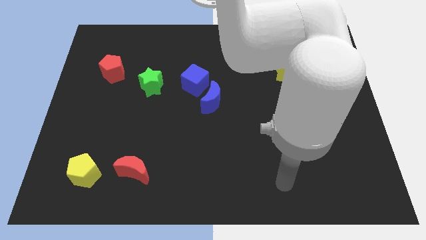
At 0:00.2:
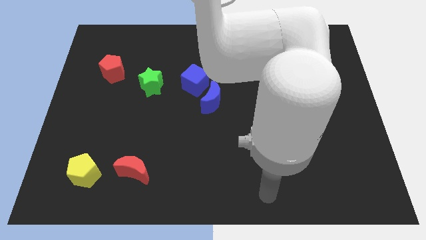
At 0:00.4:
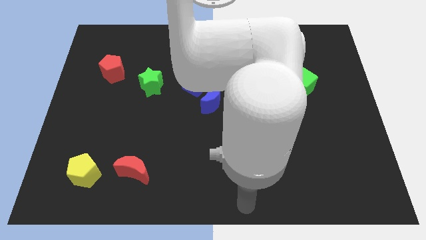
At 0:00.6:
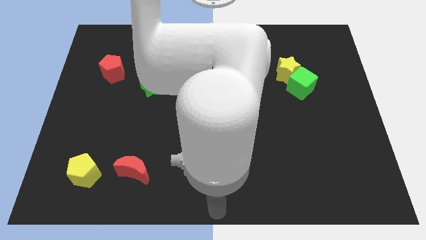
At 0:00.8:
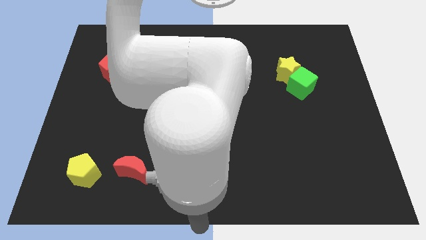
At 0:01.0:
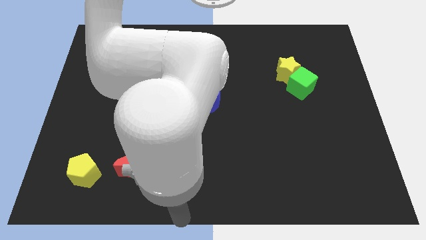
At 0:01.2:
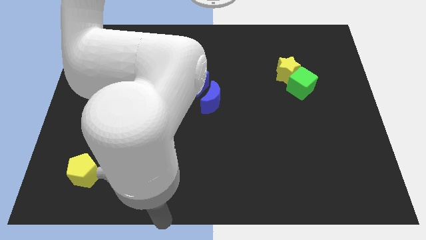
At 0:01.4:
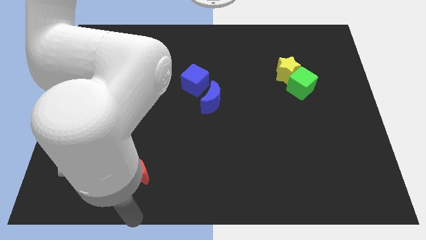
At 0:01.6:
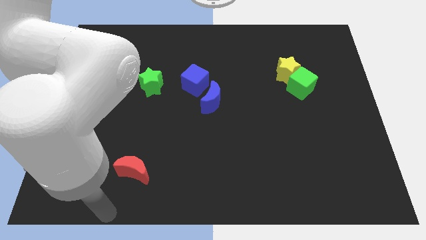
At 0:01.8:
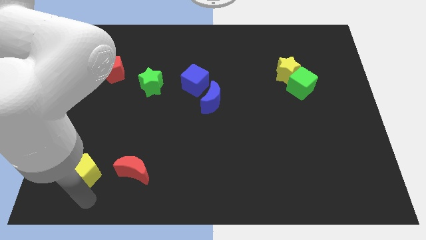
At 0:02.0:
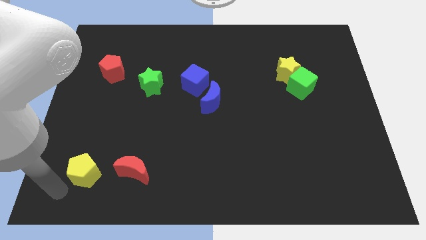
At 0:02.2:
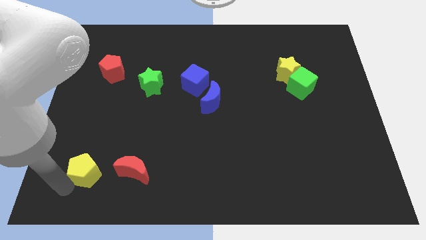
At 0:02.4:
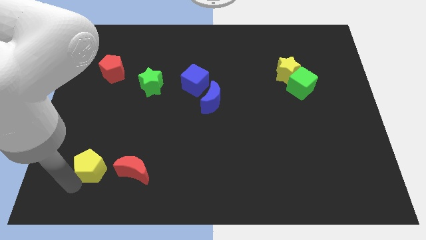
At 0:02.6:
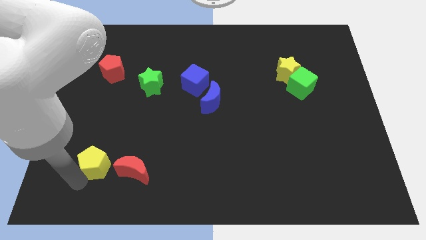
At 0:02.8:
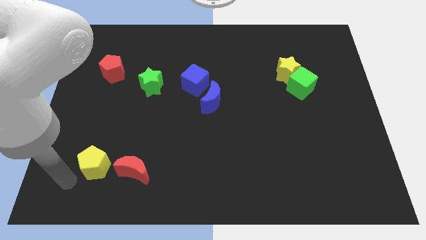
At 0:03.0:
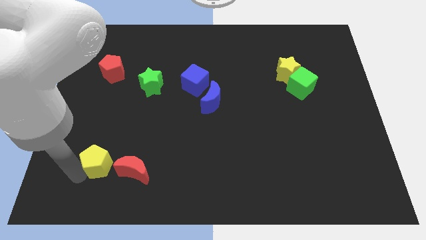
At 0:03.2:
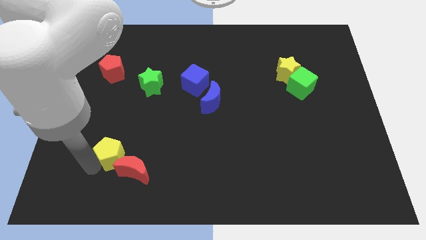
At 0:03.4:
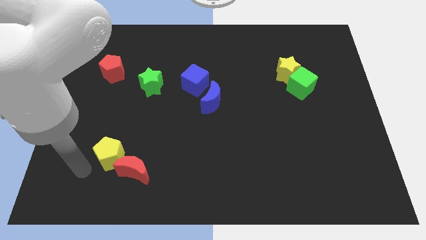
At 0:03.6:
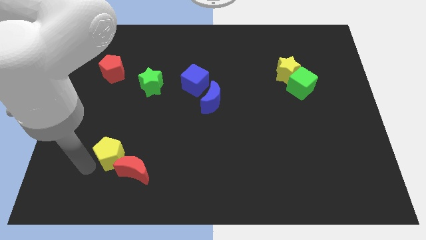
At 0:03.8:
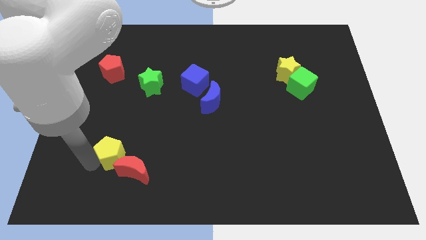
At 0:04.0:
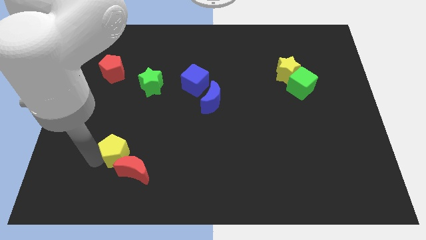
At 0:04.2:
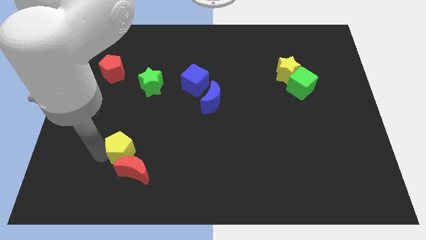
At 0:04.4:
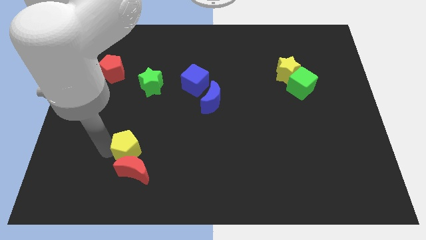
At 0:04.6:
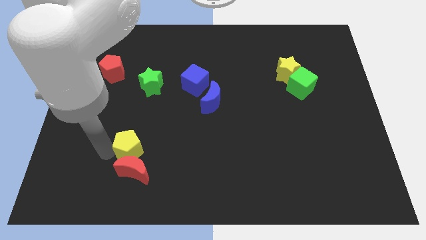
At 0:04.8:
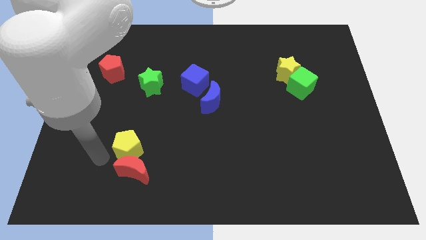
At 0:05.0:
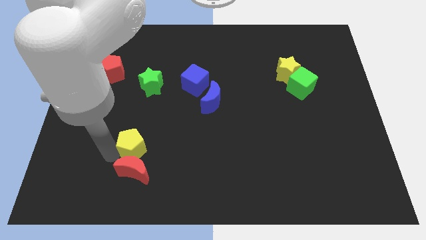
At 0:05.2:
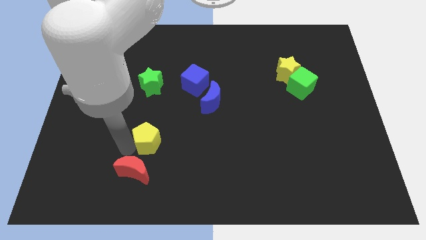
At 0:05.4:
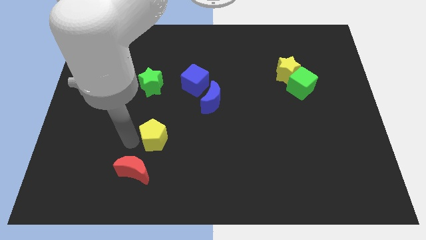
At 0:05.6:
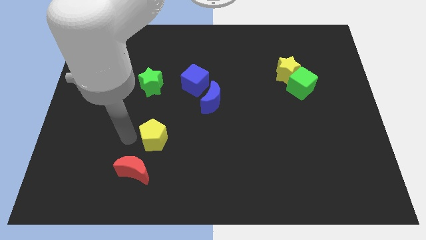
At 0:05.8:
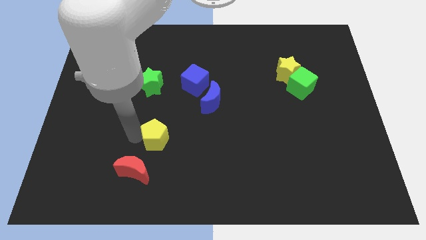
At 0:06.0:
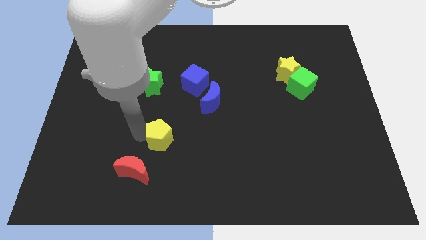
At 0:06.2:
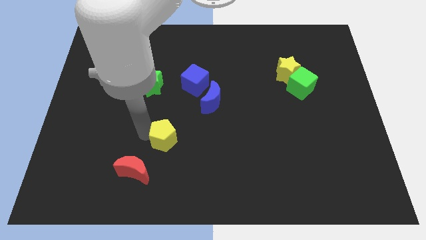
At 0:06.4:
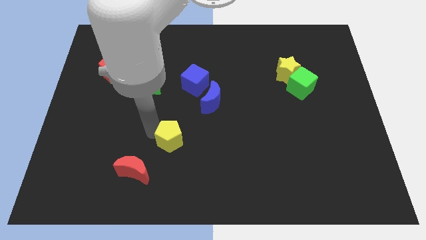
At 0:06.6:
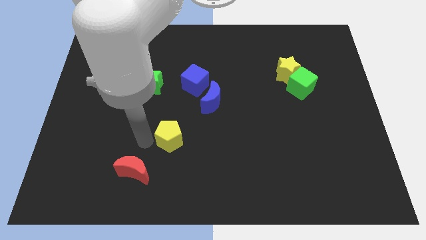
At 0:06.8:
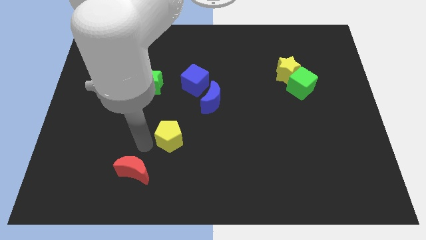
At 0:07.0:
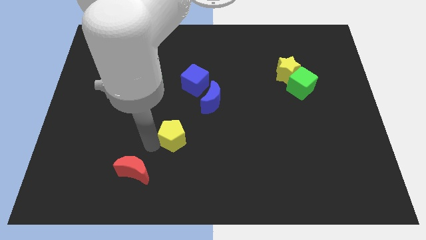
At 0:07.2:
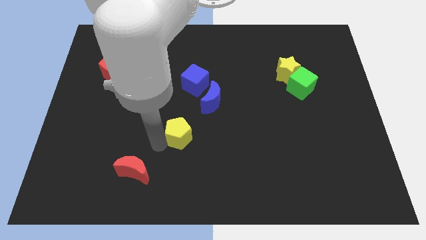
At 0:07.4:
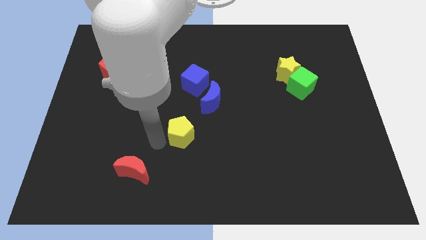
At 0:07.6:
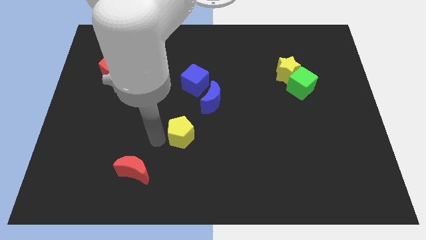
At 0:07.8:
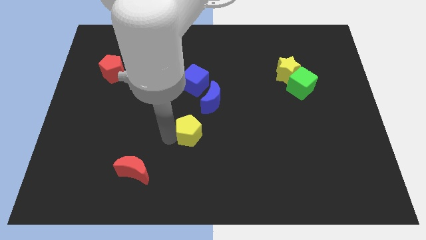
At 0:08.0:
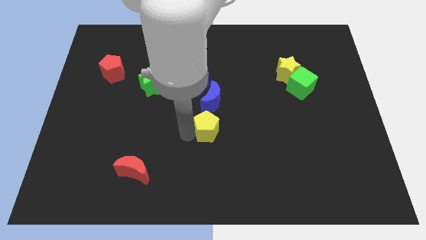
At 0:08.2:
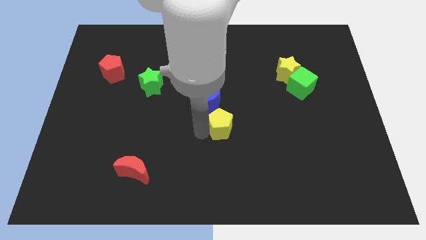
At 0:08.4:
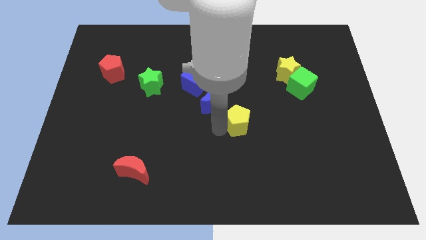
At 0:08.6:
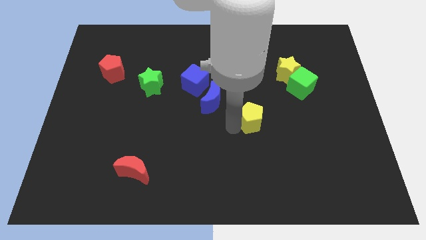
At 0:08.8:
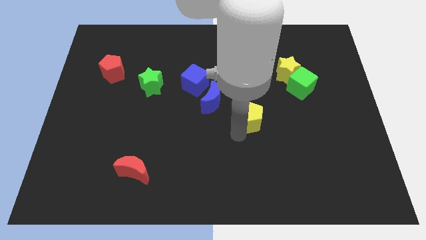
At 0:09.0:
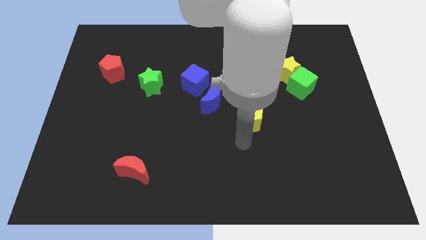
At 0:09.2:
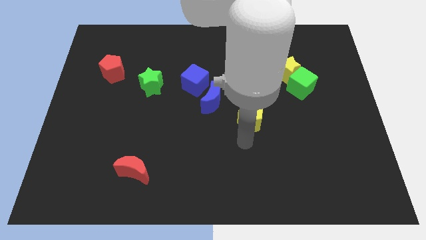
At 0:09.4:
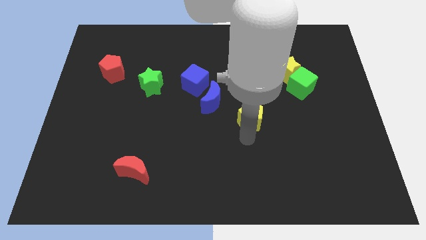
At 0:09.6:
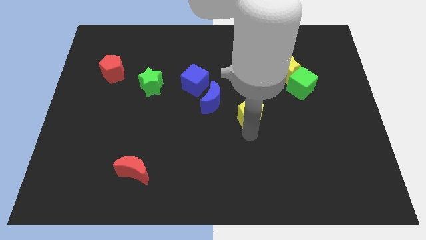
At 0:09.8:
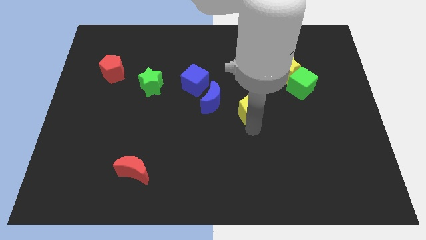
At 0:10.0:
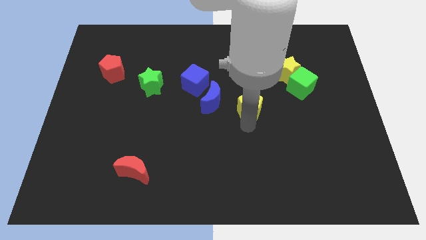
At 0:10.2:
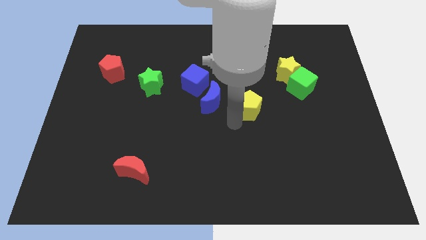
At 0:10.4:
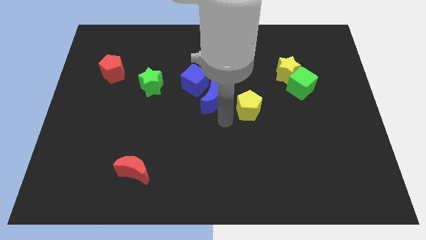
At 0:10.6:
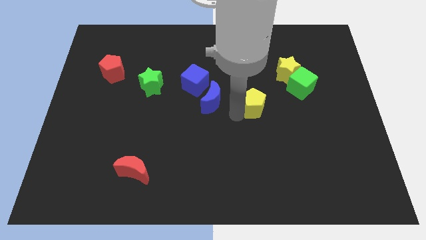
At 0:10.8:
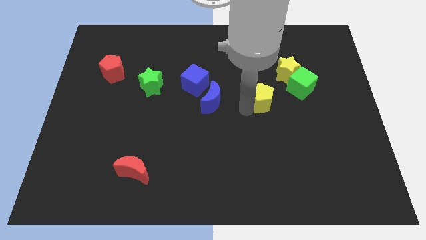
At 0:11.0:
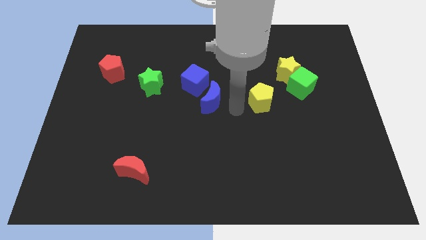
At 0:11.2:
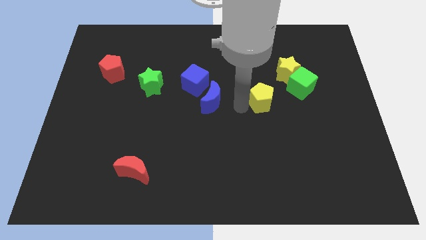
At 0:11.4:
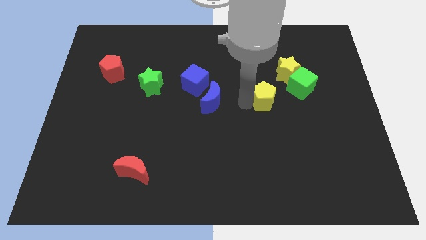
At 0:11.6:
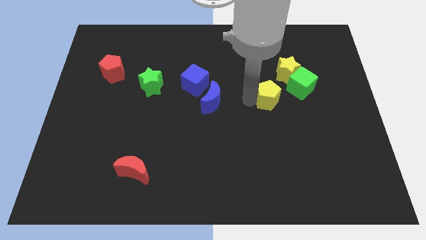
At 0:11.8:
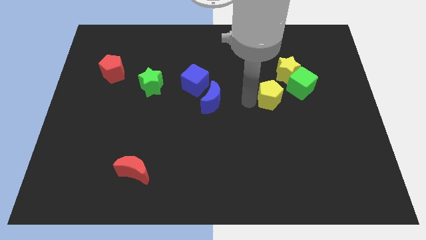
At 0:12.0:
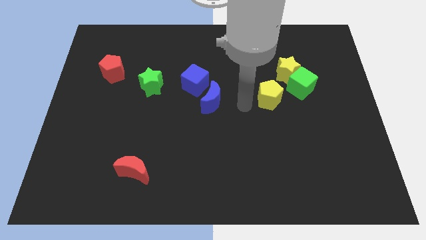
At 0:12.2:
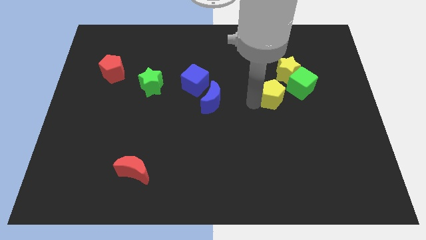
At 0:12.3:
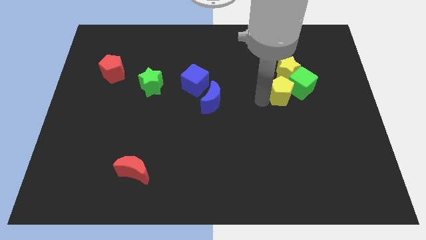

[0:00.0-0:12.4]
move the yellow pentagon next to the green cube

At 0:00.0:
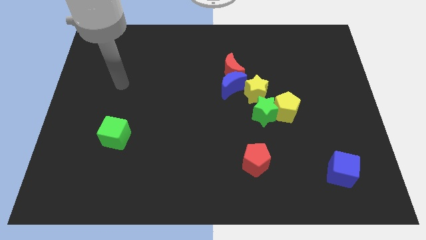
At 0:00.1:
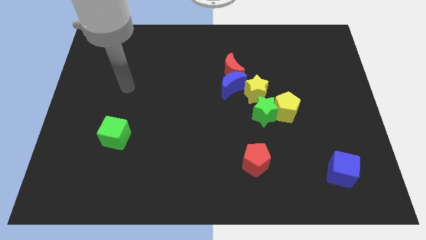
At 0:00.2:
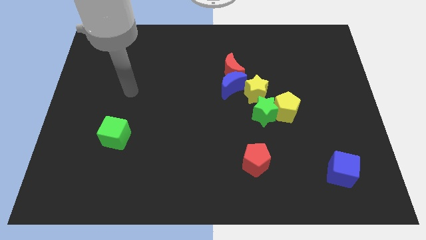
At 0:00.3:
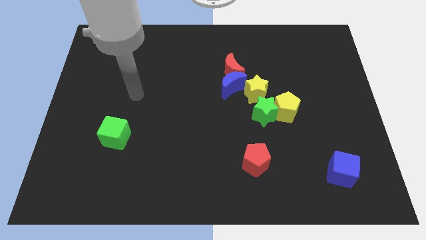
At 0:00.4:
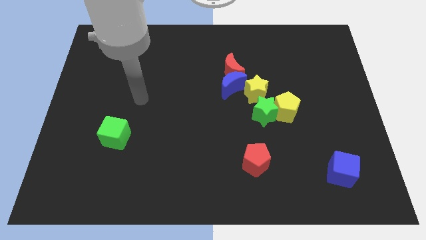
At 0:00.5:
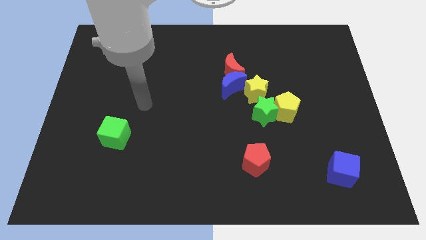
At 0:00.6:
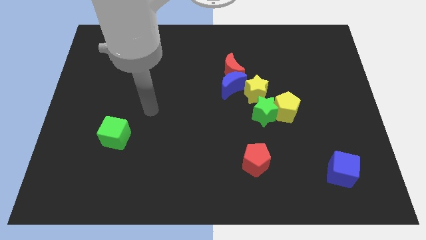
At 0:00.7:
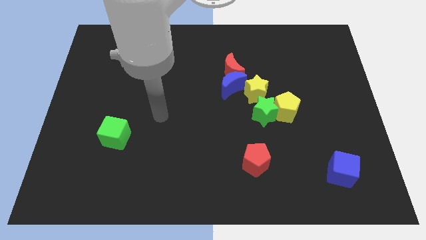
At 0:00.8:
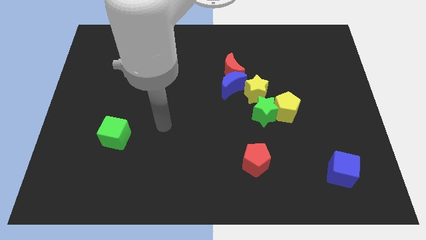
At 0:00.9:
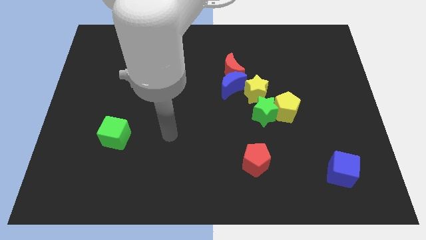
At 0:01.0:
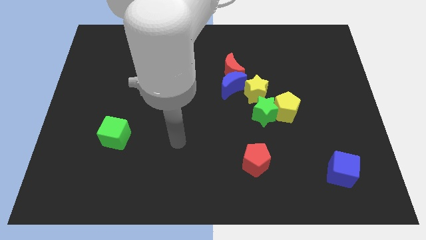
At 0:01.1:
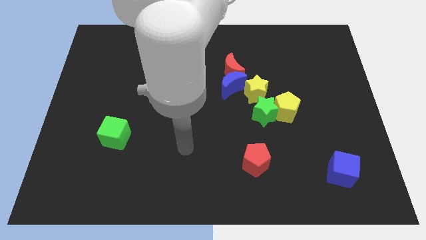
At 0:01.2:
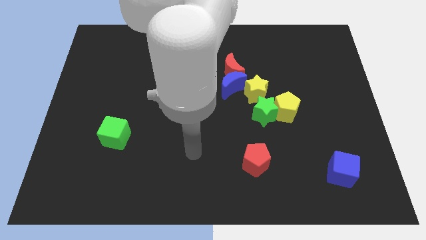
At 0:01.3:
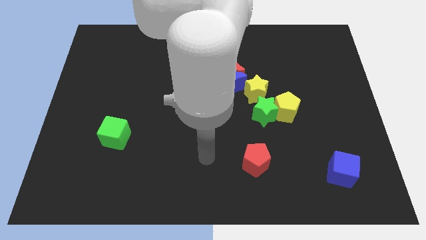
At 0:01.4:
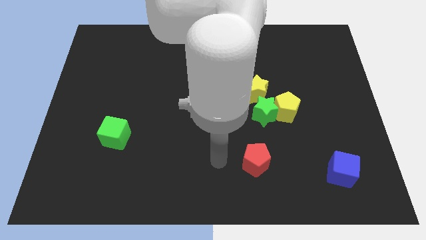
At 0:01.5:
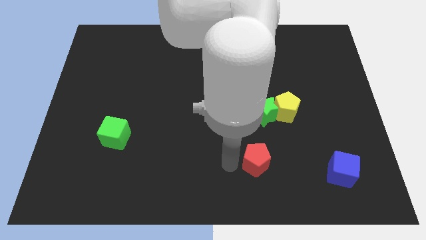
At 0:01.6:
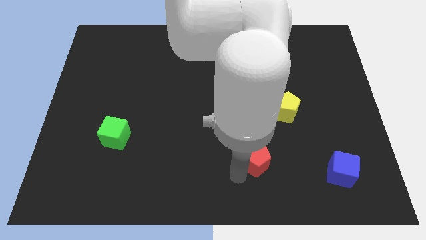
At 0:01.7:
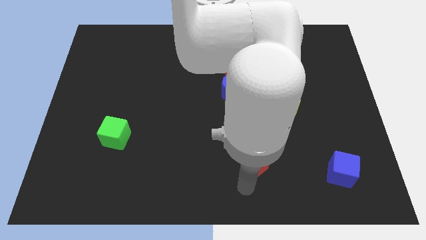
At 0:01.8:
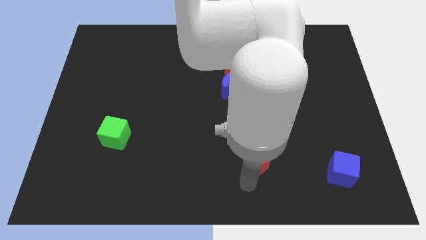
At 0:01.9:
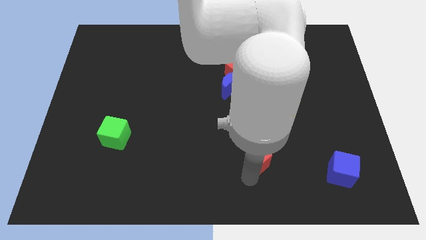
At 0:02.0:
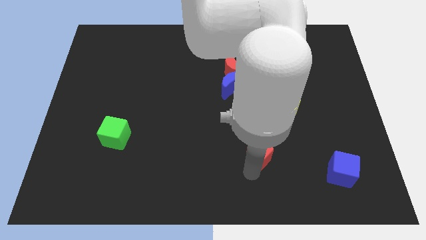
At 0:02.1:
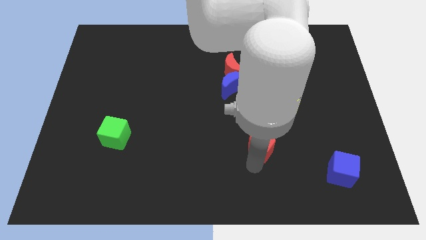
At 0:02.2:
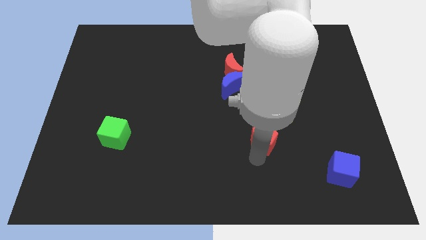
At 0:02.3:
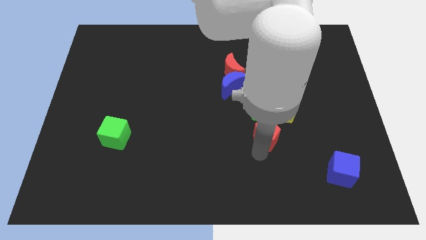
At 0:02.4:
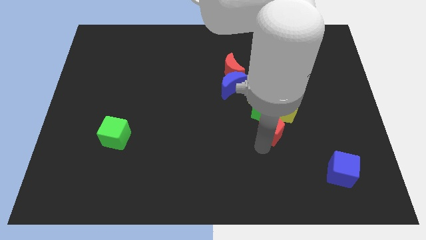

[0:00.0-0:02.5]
push the red pentagon to the green star
